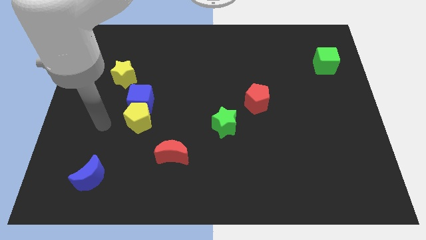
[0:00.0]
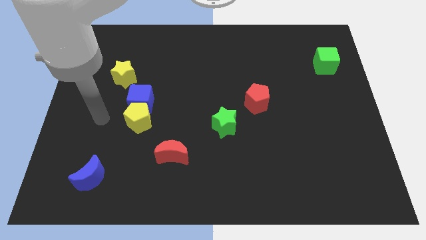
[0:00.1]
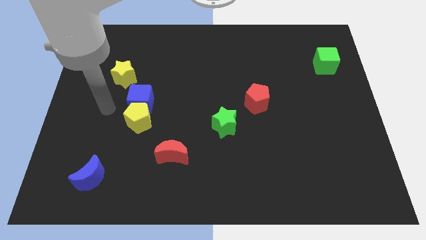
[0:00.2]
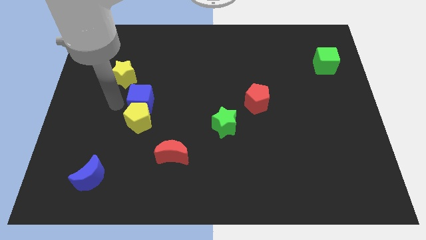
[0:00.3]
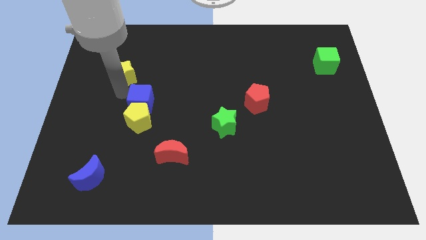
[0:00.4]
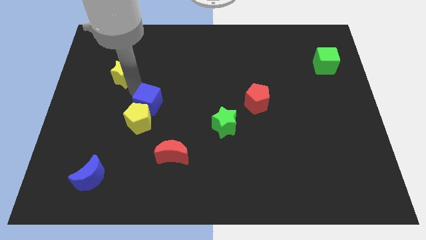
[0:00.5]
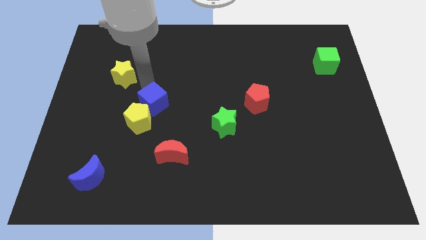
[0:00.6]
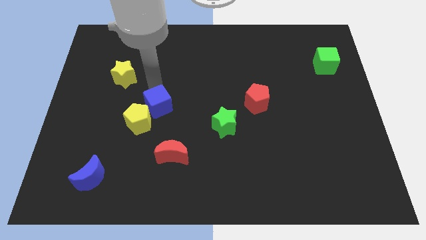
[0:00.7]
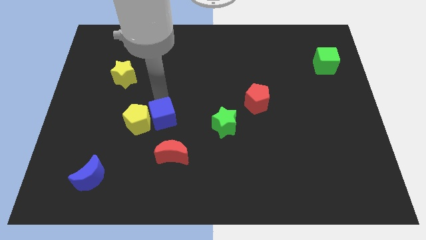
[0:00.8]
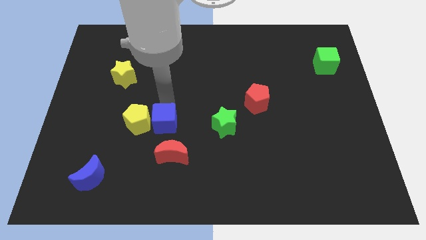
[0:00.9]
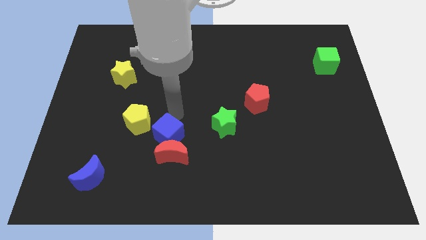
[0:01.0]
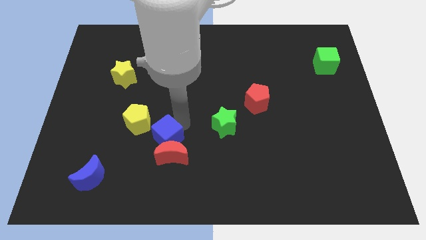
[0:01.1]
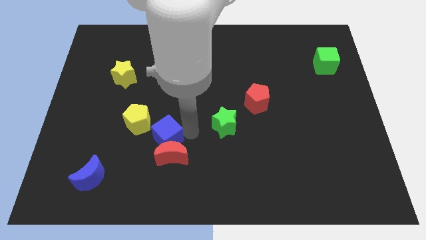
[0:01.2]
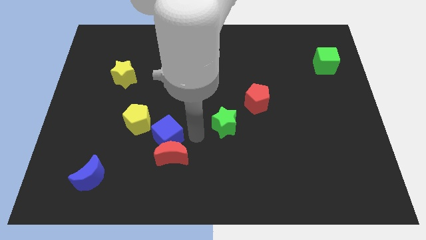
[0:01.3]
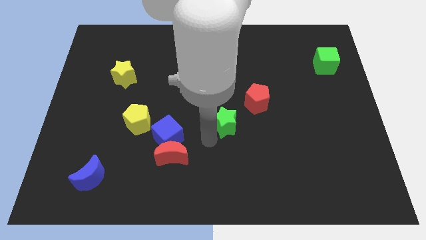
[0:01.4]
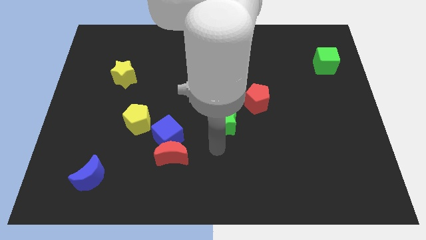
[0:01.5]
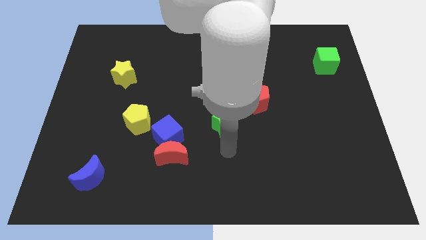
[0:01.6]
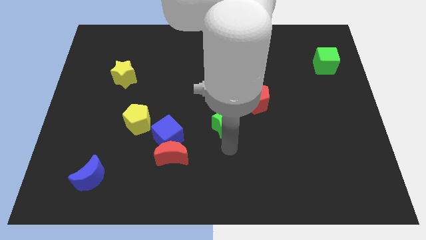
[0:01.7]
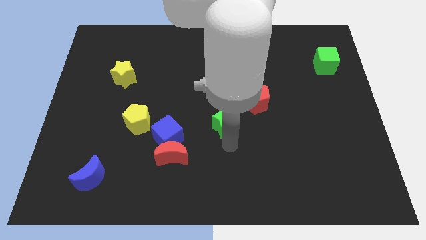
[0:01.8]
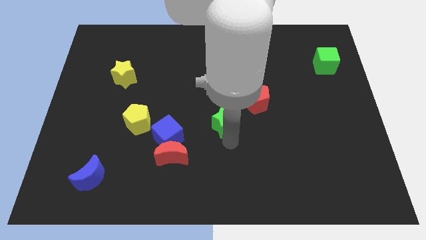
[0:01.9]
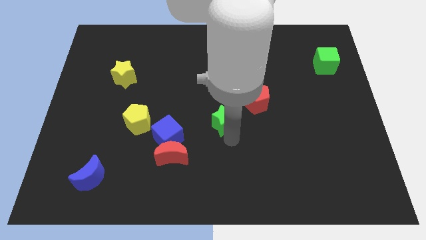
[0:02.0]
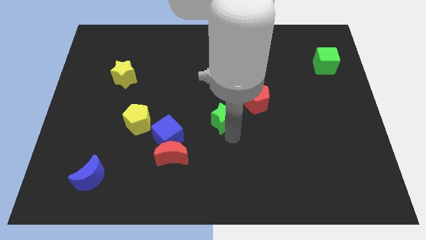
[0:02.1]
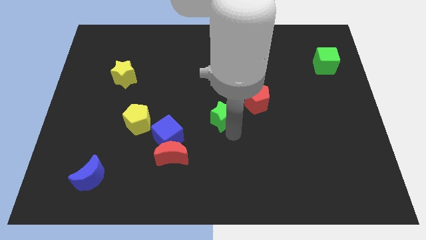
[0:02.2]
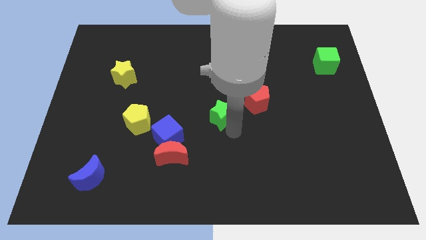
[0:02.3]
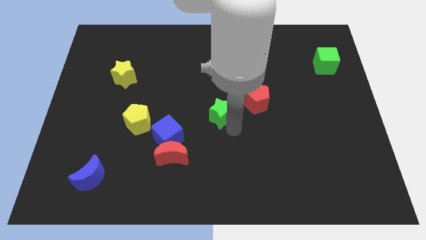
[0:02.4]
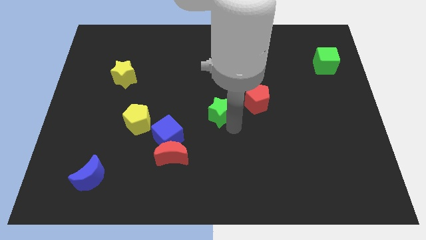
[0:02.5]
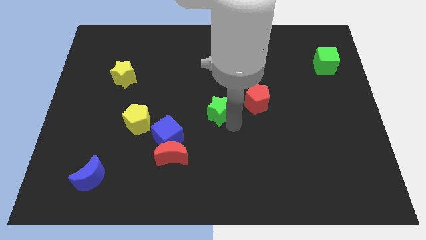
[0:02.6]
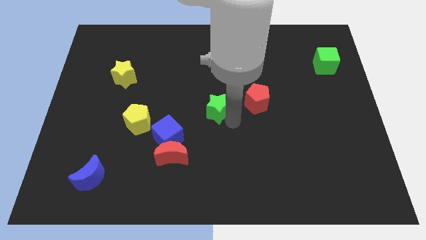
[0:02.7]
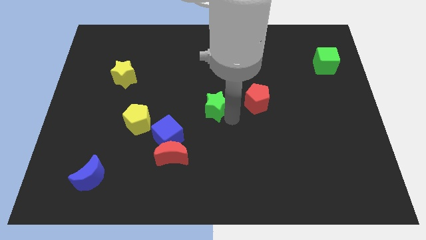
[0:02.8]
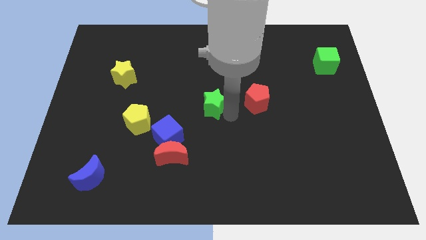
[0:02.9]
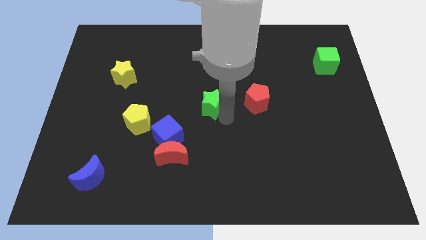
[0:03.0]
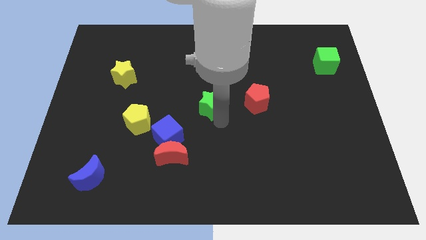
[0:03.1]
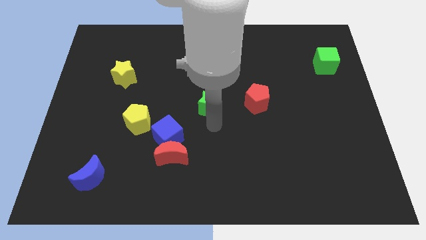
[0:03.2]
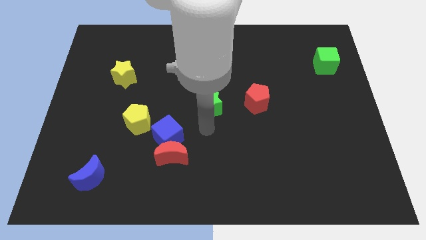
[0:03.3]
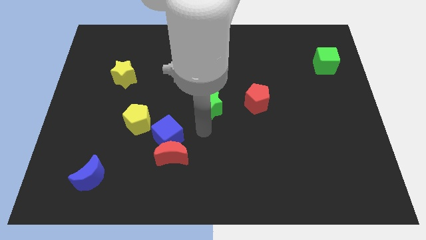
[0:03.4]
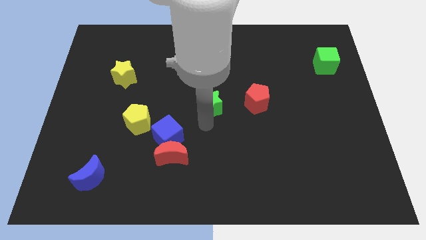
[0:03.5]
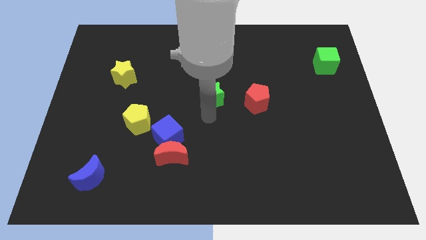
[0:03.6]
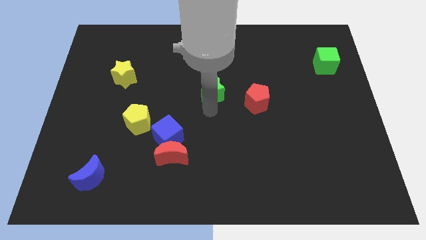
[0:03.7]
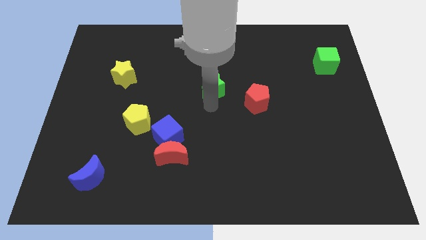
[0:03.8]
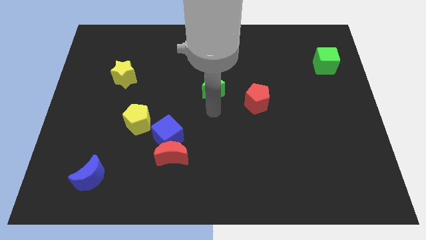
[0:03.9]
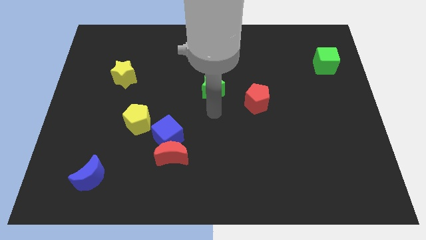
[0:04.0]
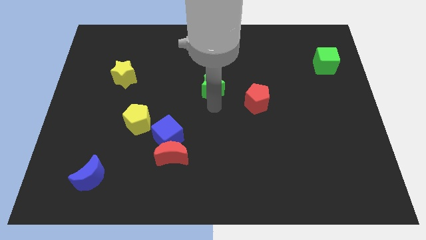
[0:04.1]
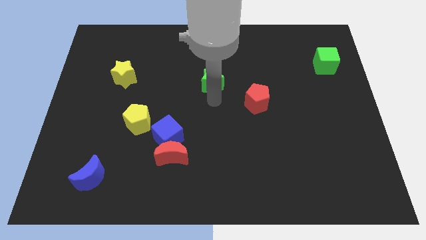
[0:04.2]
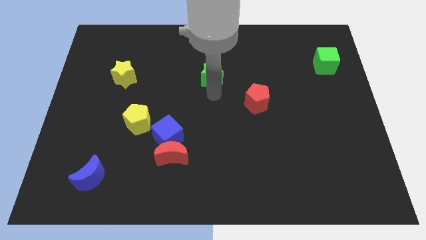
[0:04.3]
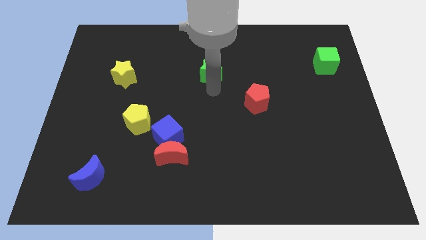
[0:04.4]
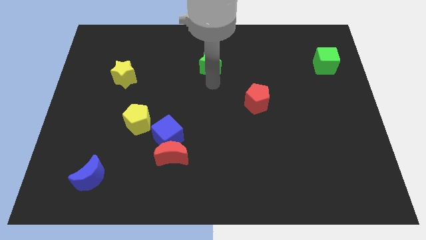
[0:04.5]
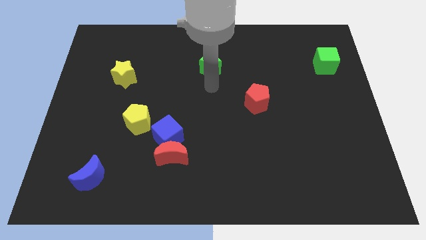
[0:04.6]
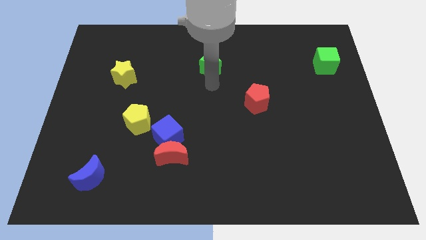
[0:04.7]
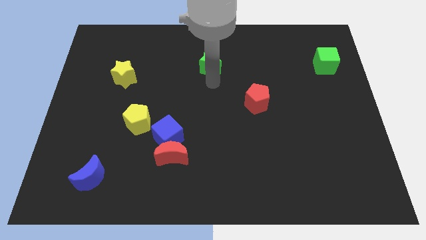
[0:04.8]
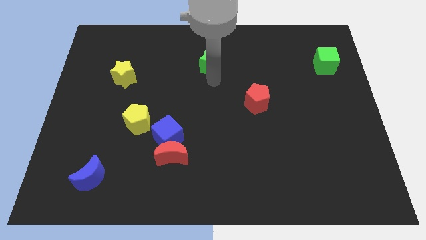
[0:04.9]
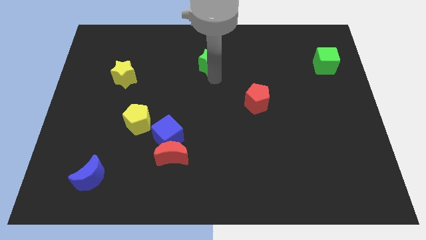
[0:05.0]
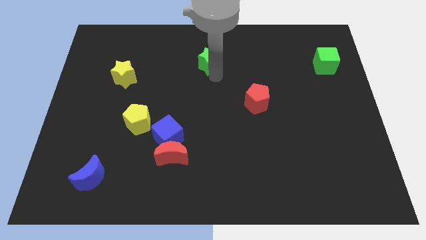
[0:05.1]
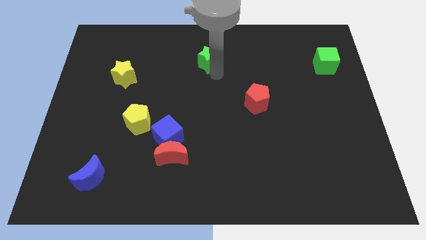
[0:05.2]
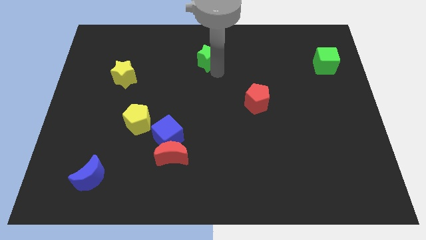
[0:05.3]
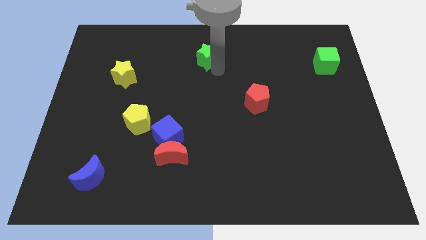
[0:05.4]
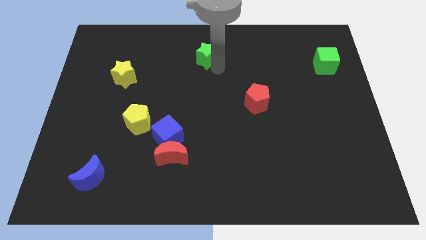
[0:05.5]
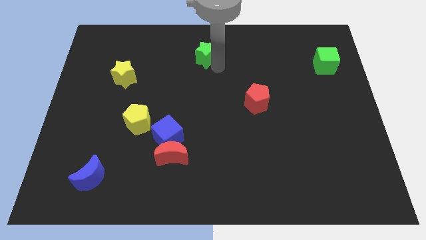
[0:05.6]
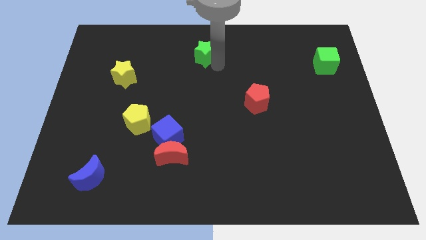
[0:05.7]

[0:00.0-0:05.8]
move the green star to the top side

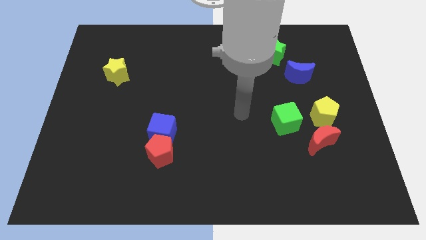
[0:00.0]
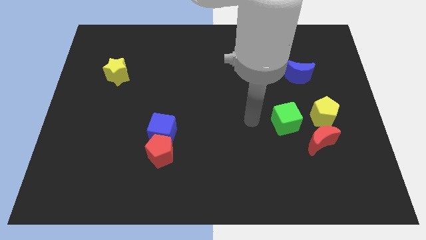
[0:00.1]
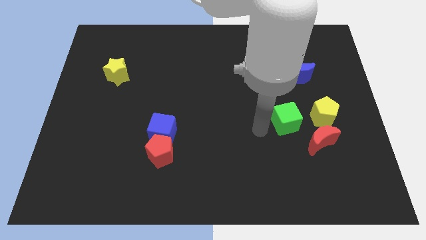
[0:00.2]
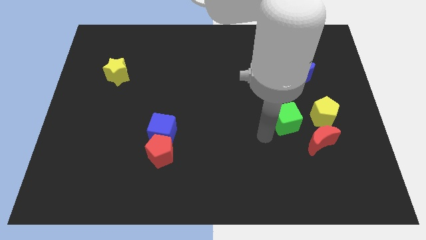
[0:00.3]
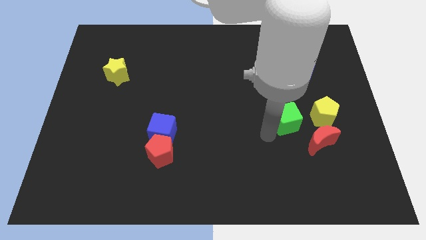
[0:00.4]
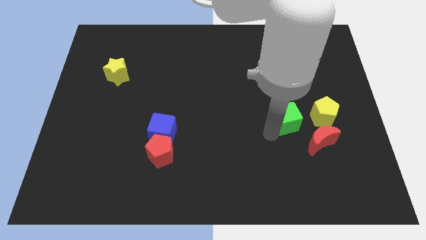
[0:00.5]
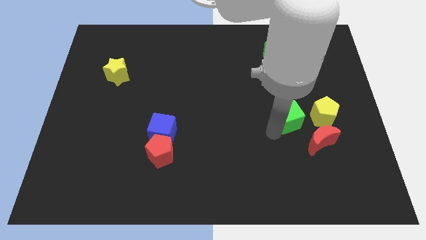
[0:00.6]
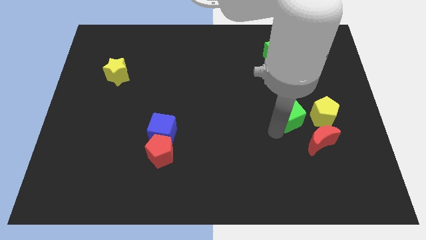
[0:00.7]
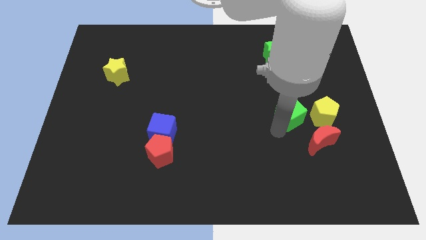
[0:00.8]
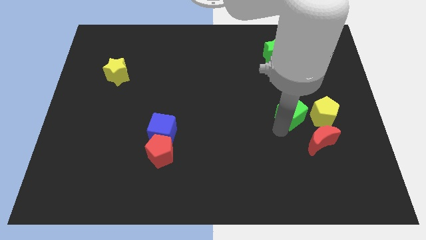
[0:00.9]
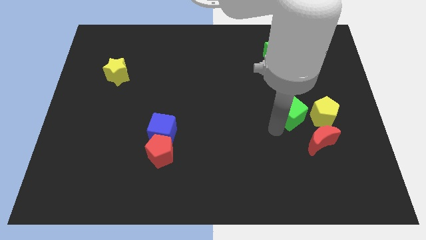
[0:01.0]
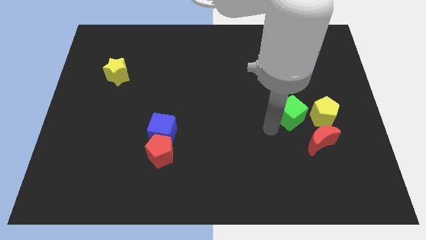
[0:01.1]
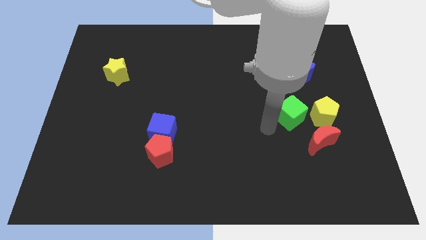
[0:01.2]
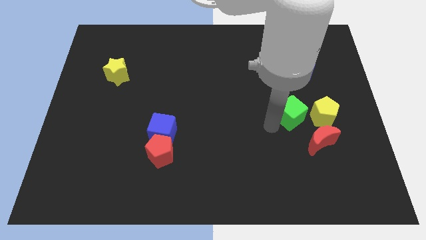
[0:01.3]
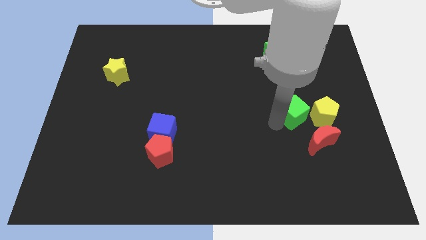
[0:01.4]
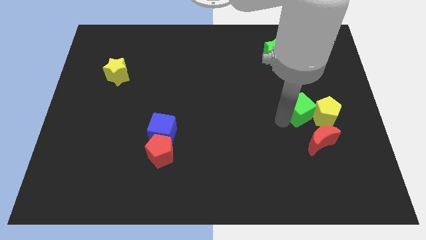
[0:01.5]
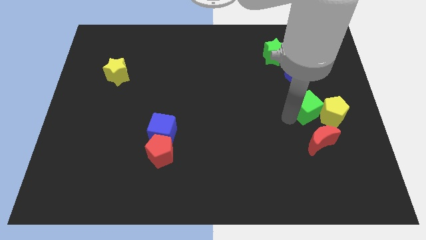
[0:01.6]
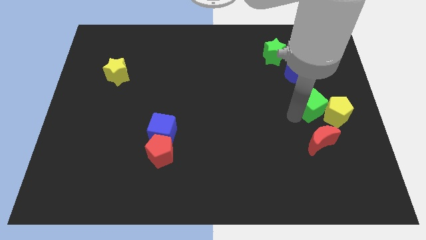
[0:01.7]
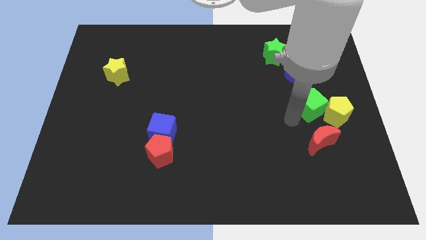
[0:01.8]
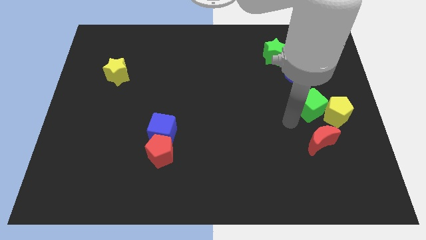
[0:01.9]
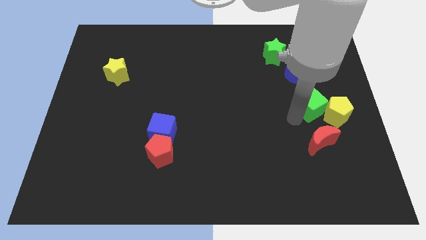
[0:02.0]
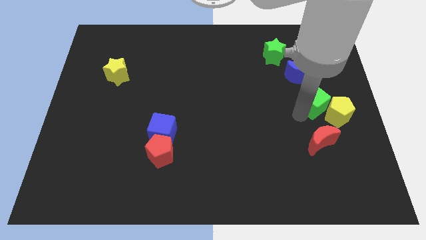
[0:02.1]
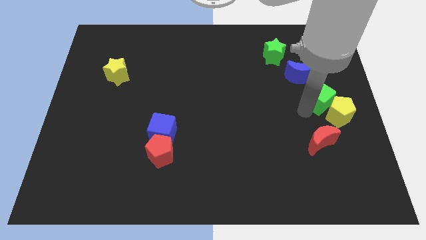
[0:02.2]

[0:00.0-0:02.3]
push the green cube to the right side of the board
